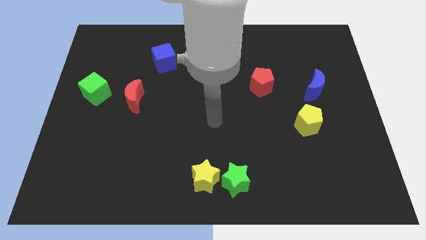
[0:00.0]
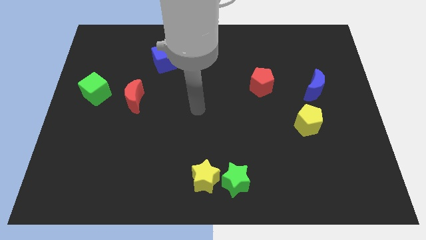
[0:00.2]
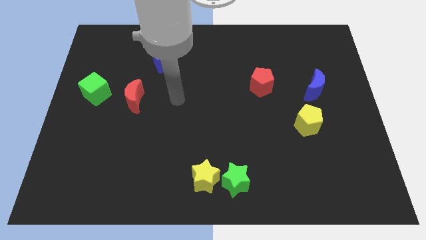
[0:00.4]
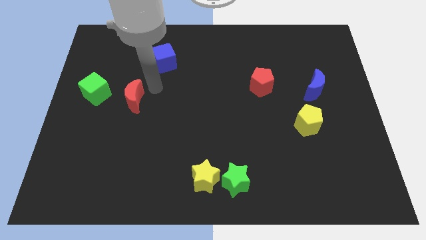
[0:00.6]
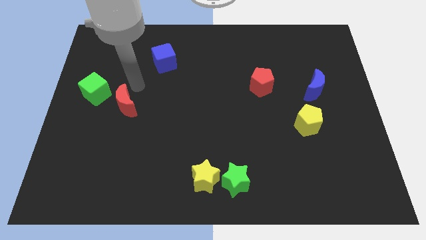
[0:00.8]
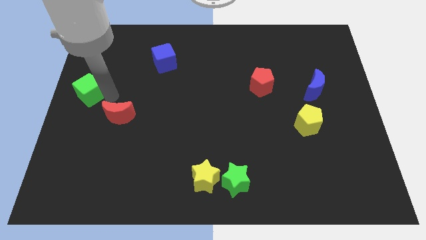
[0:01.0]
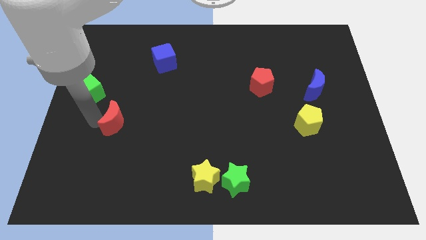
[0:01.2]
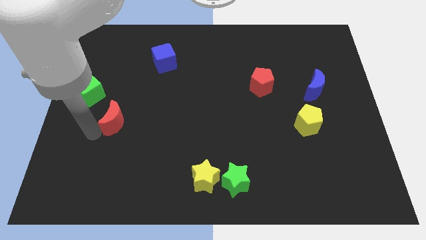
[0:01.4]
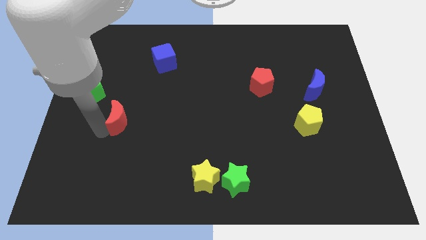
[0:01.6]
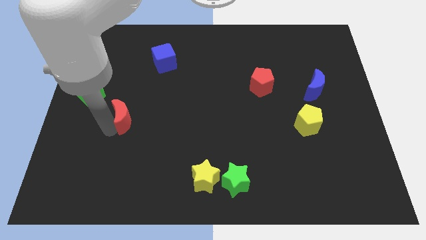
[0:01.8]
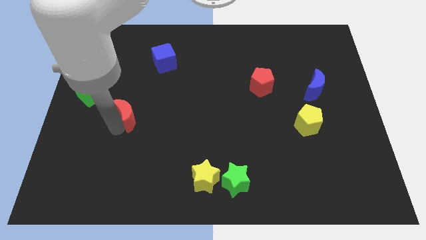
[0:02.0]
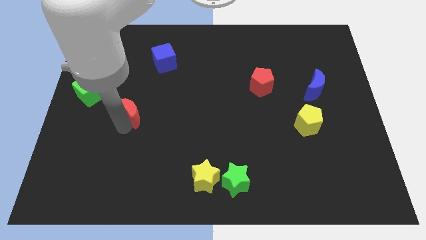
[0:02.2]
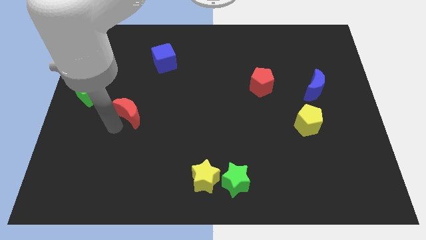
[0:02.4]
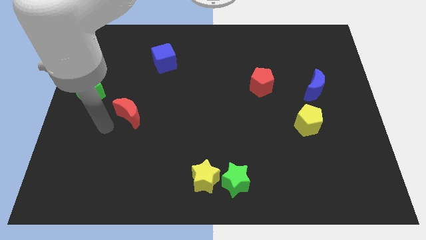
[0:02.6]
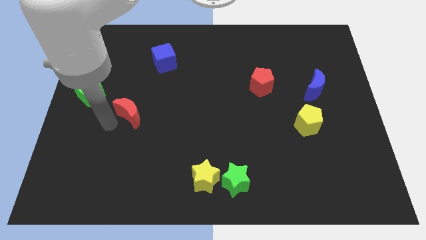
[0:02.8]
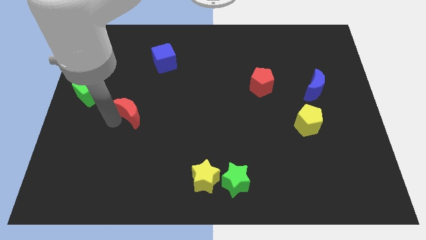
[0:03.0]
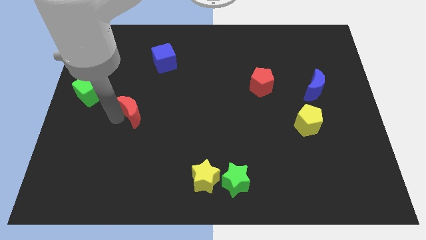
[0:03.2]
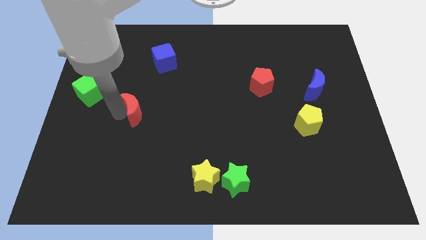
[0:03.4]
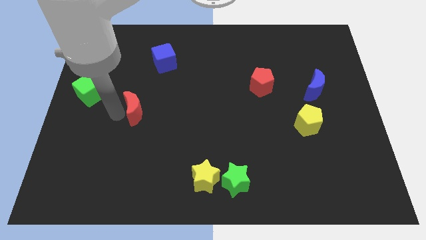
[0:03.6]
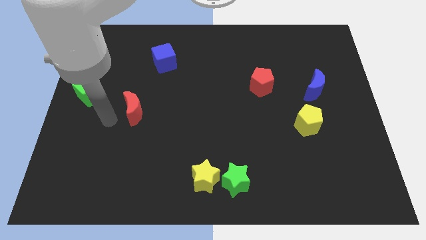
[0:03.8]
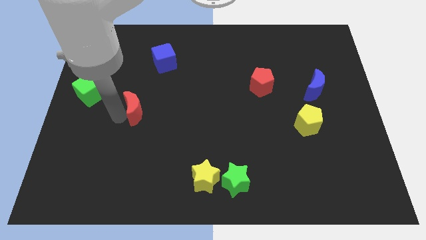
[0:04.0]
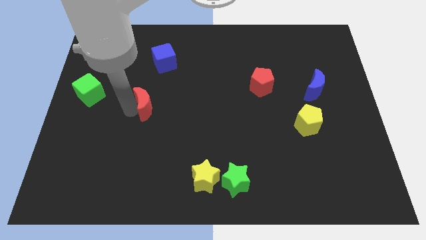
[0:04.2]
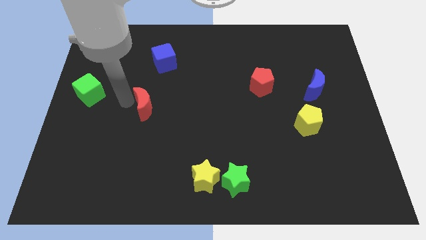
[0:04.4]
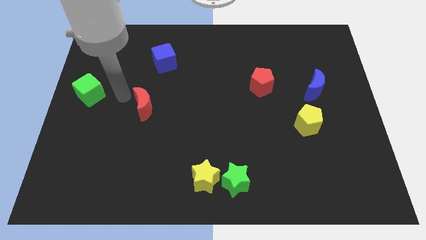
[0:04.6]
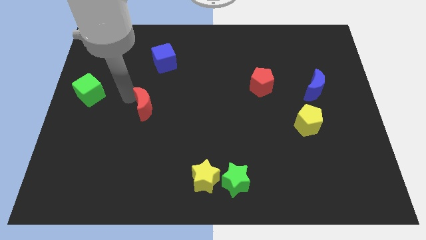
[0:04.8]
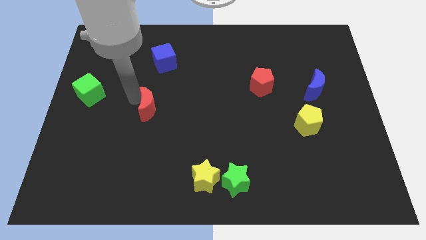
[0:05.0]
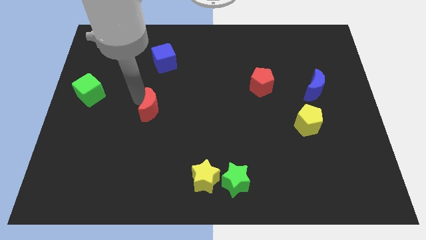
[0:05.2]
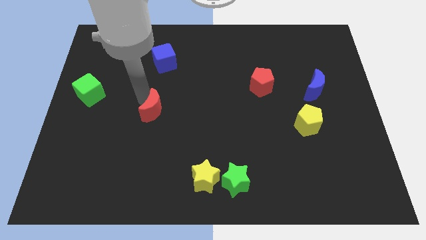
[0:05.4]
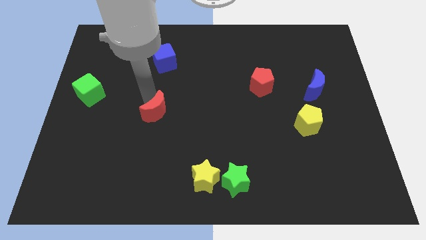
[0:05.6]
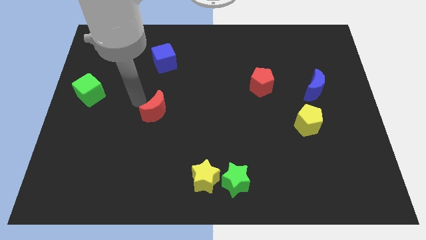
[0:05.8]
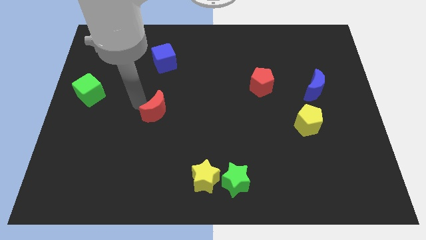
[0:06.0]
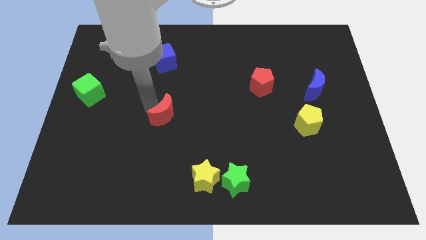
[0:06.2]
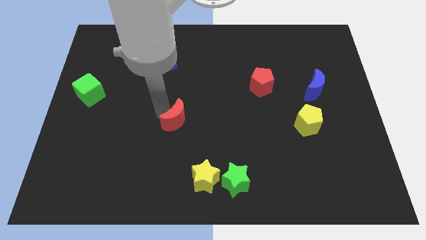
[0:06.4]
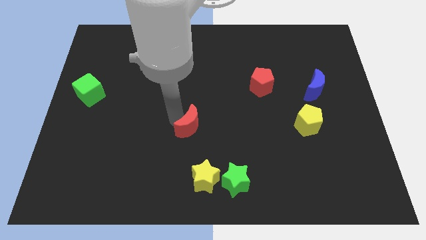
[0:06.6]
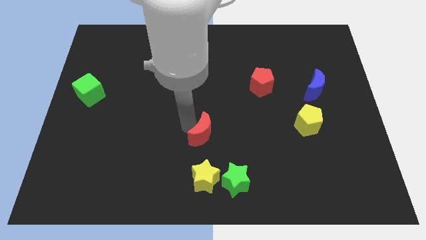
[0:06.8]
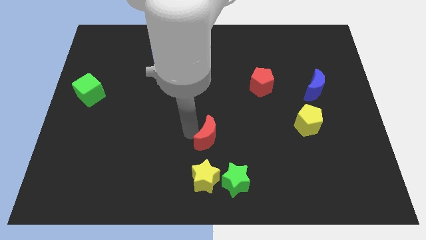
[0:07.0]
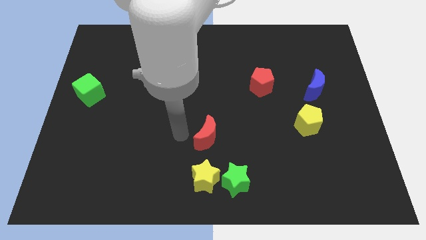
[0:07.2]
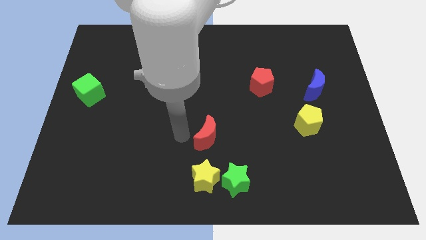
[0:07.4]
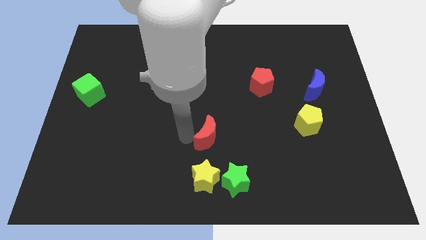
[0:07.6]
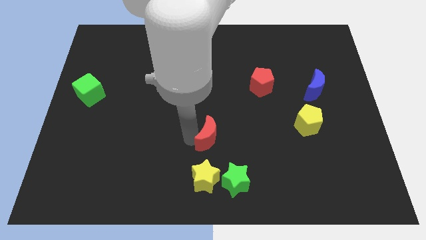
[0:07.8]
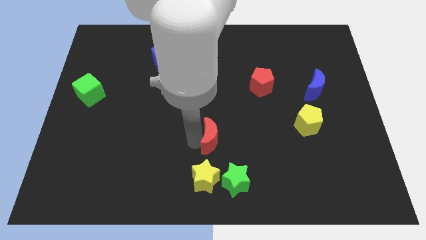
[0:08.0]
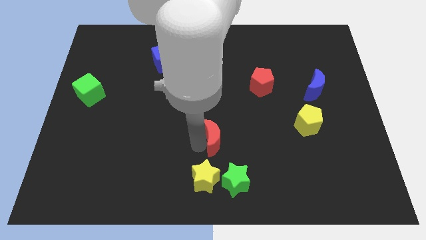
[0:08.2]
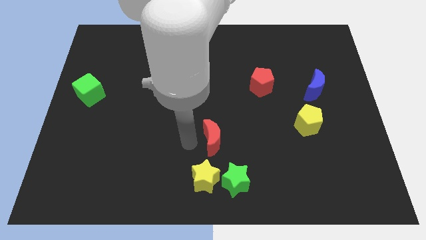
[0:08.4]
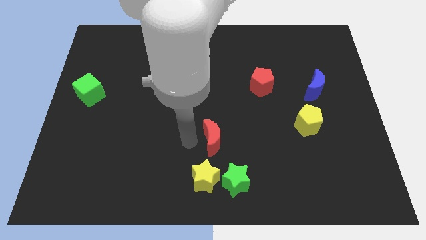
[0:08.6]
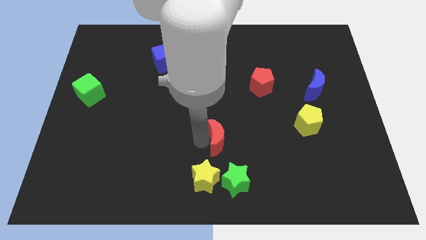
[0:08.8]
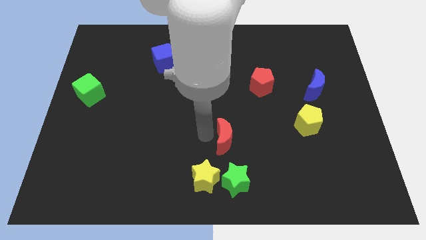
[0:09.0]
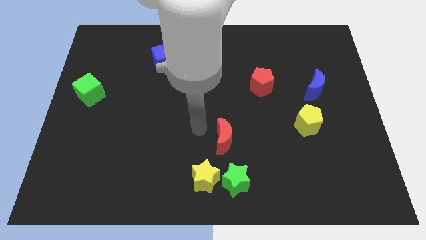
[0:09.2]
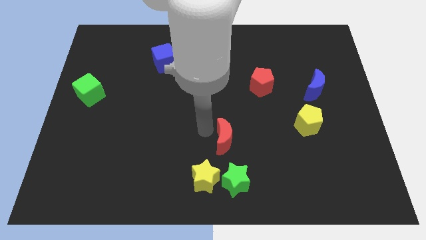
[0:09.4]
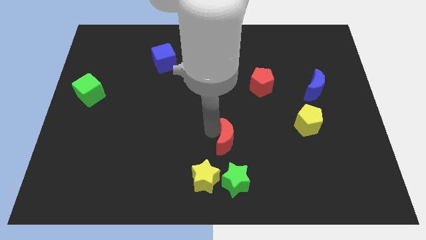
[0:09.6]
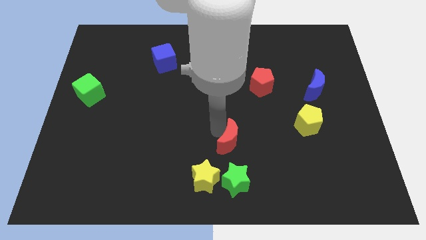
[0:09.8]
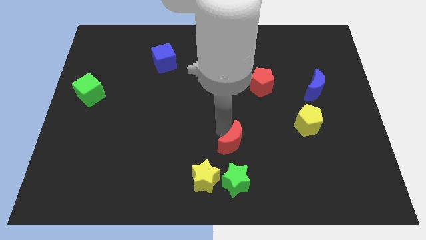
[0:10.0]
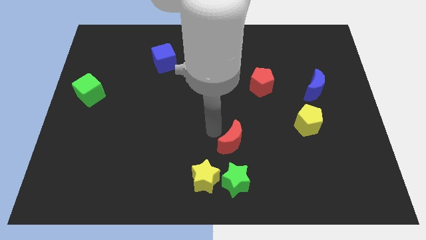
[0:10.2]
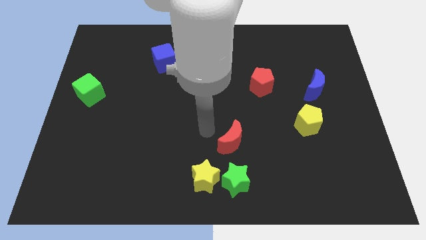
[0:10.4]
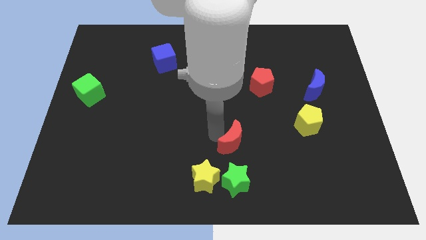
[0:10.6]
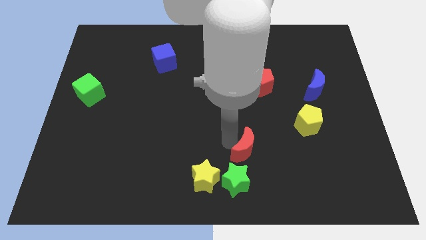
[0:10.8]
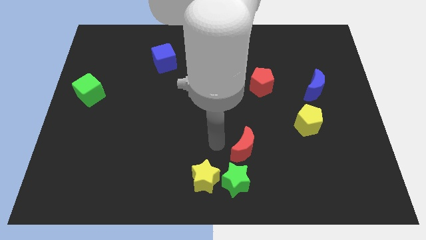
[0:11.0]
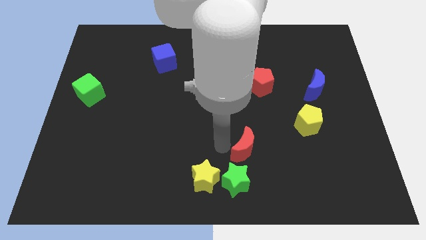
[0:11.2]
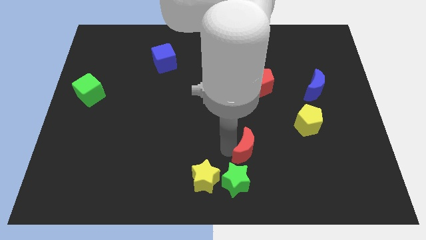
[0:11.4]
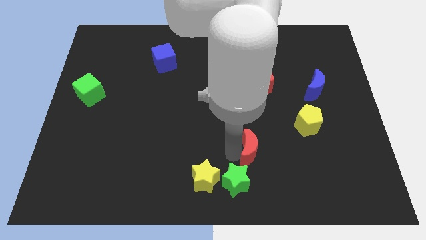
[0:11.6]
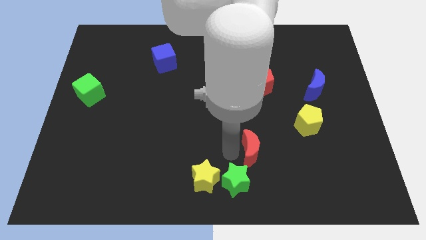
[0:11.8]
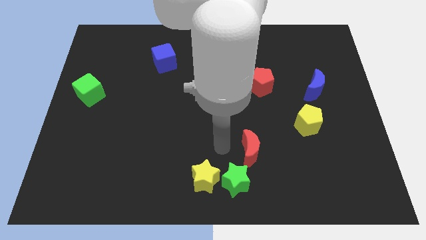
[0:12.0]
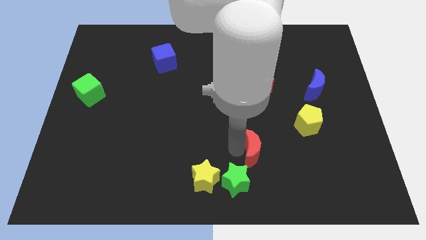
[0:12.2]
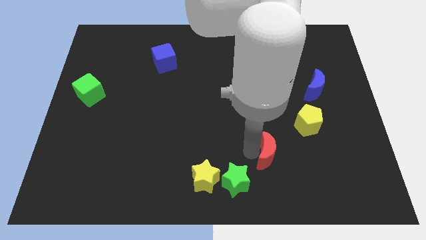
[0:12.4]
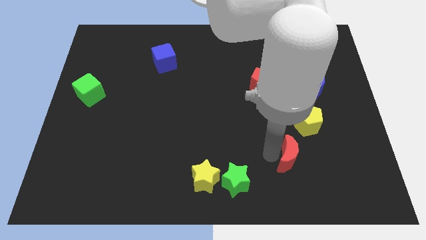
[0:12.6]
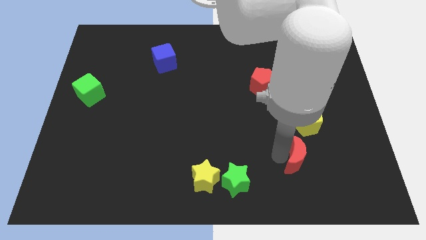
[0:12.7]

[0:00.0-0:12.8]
push the red moon to the bottom of the yellow pentagon

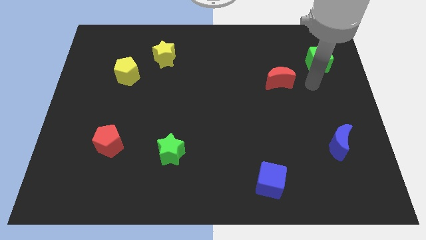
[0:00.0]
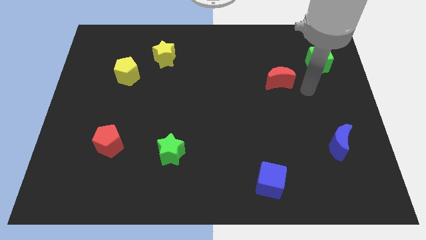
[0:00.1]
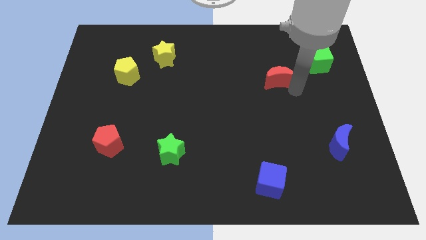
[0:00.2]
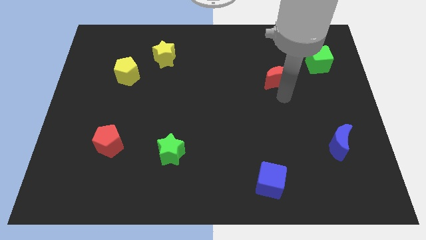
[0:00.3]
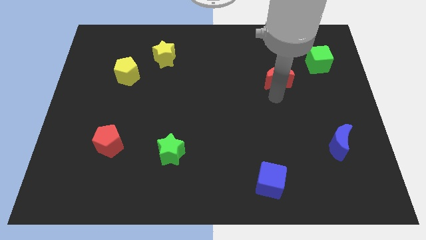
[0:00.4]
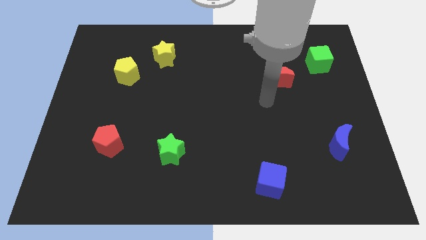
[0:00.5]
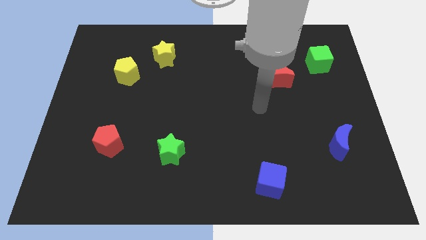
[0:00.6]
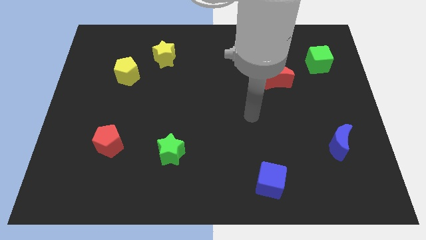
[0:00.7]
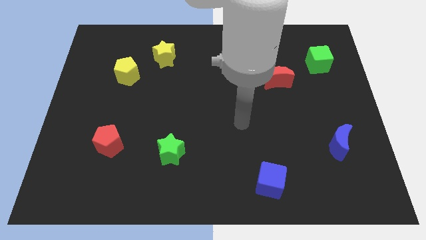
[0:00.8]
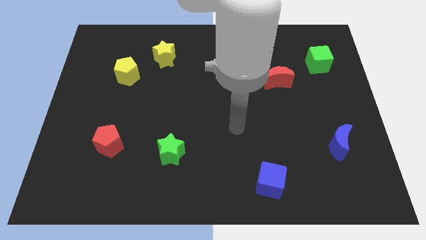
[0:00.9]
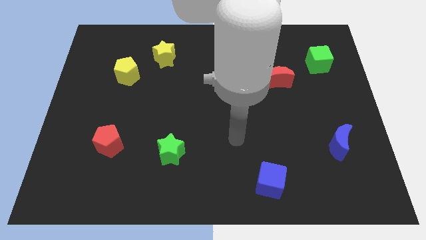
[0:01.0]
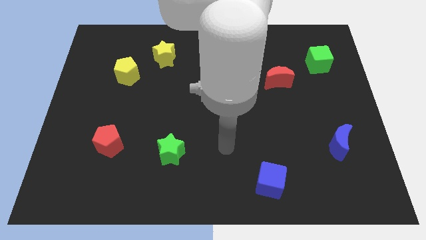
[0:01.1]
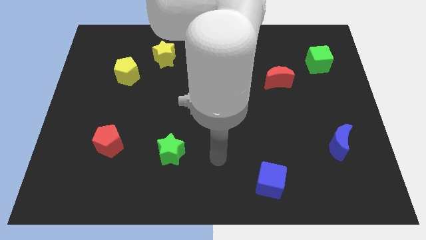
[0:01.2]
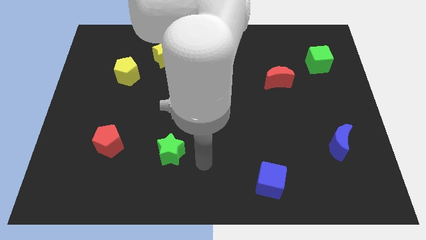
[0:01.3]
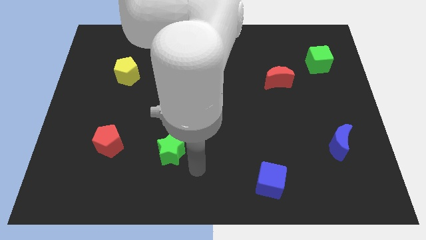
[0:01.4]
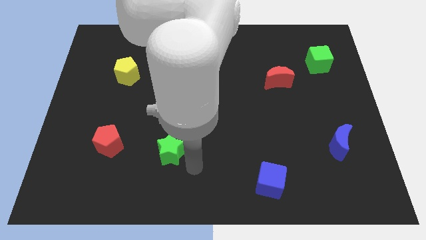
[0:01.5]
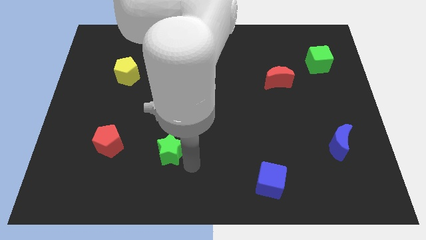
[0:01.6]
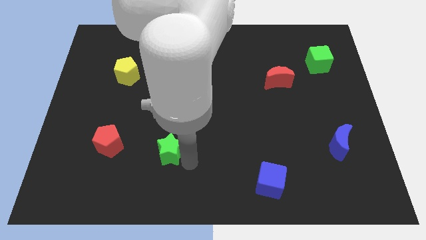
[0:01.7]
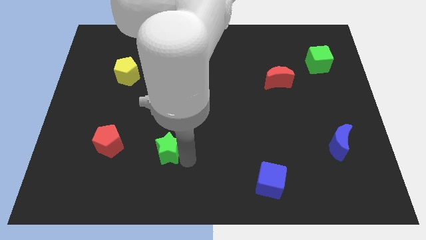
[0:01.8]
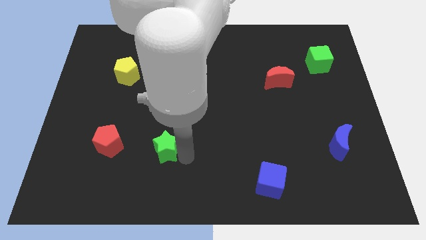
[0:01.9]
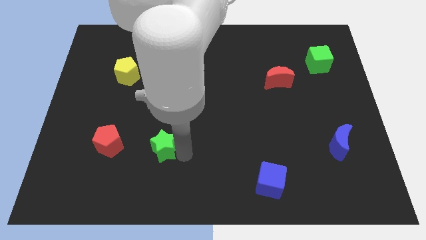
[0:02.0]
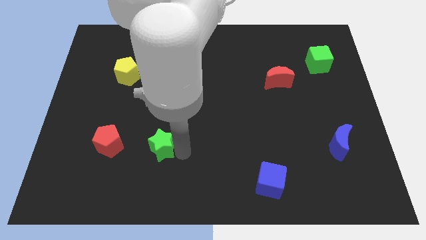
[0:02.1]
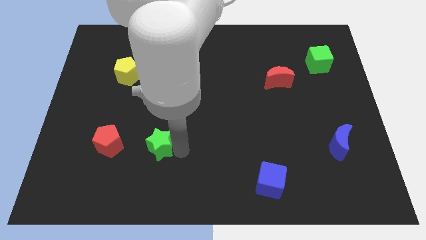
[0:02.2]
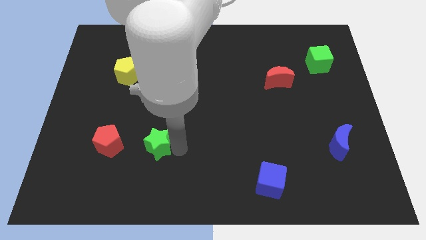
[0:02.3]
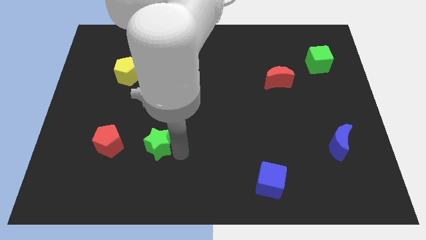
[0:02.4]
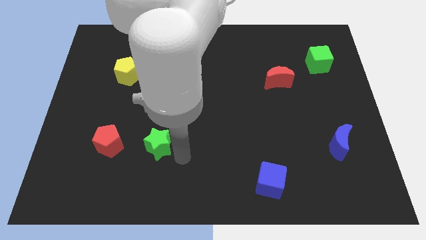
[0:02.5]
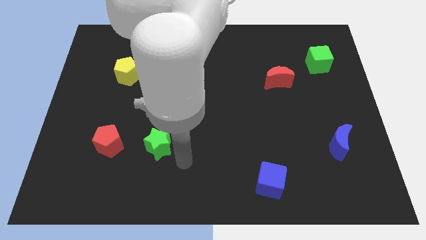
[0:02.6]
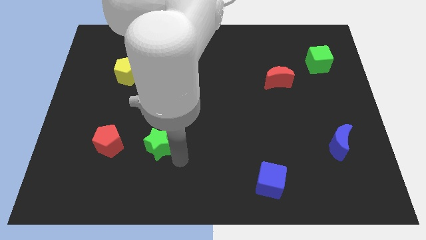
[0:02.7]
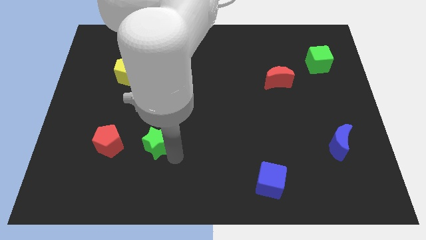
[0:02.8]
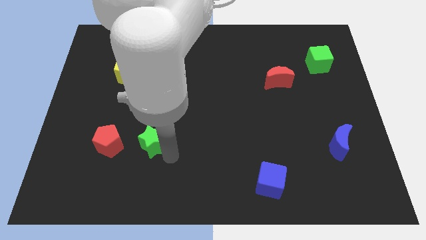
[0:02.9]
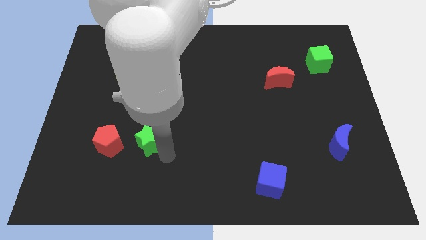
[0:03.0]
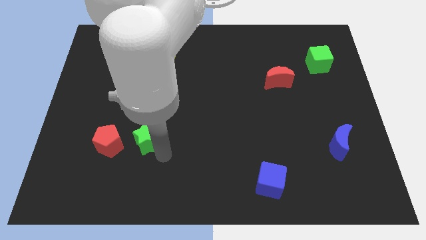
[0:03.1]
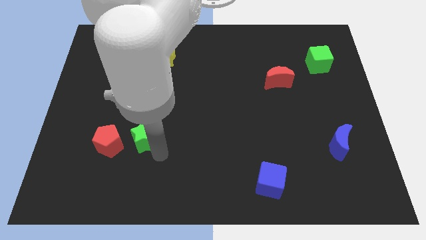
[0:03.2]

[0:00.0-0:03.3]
move the green star diagonally up and to the right of the red pentagon
